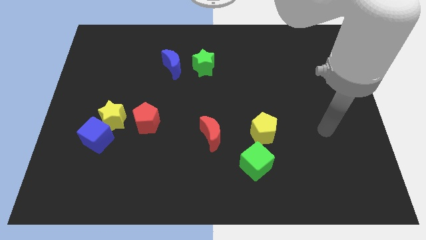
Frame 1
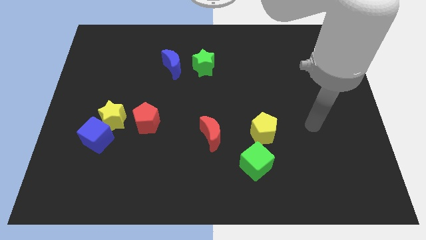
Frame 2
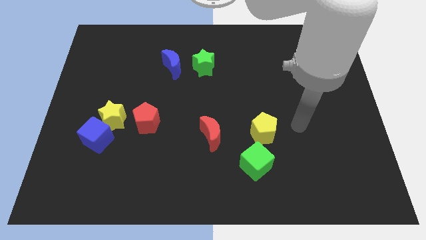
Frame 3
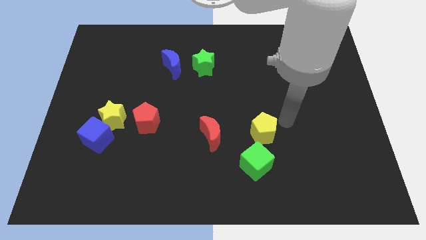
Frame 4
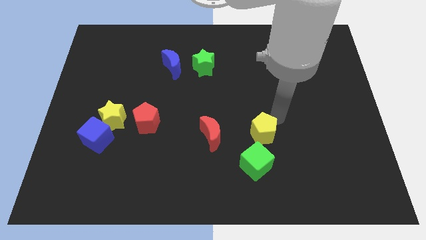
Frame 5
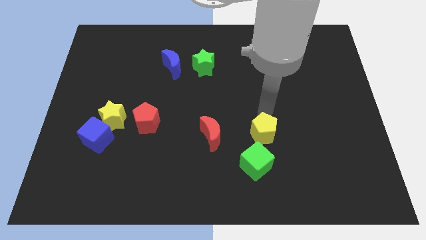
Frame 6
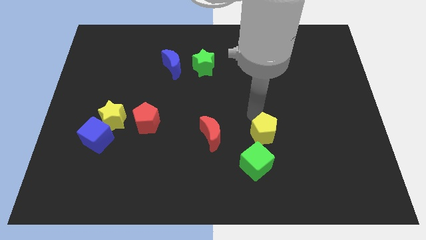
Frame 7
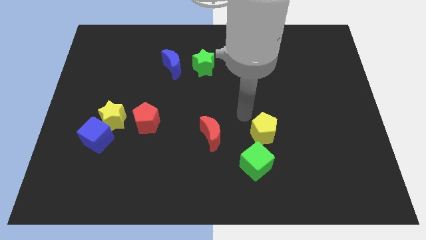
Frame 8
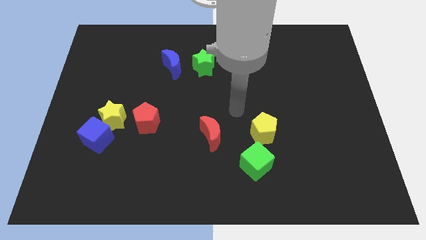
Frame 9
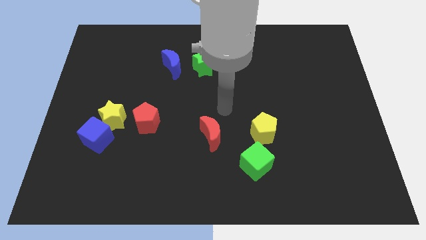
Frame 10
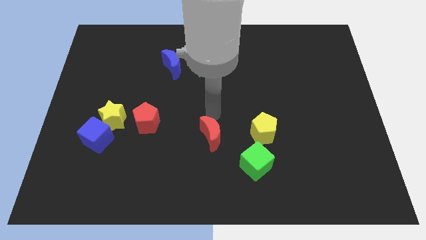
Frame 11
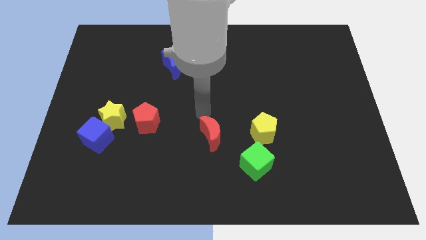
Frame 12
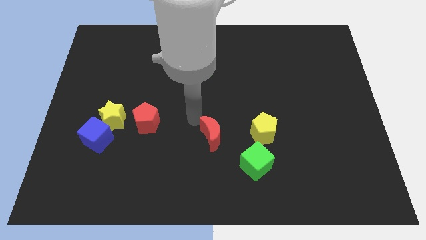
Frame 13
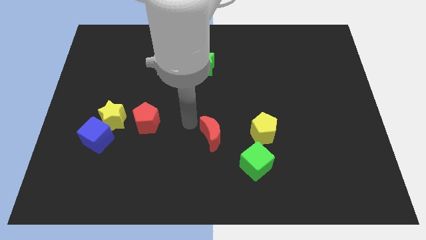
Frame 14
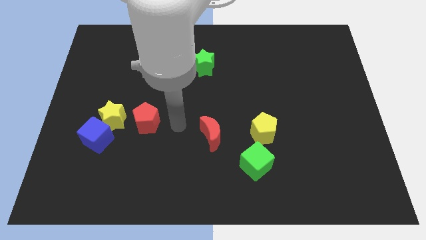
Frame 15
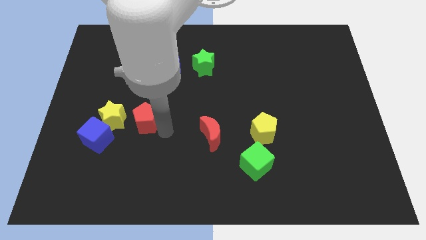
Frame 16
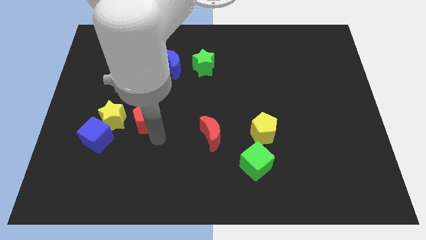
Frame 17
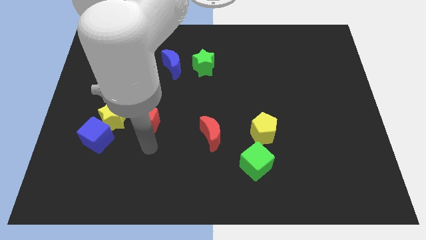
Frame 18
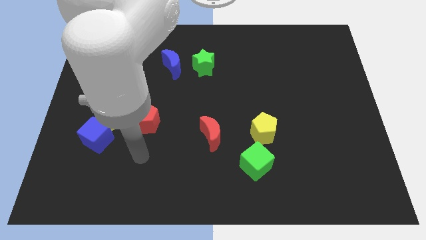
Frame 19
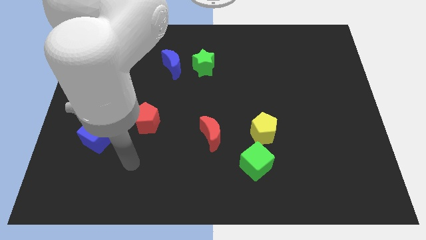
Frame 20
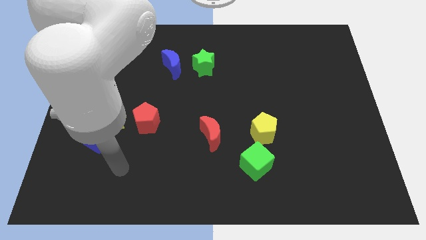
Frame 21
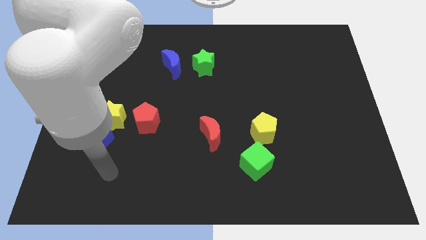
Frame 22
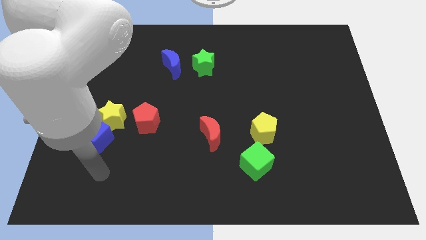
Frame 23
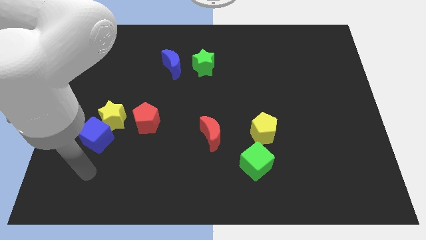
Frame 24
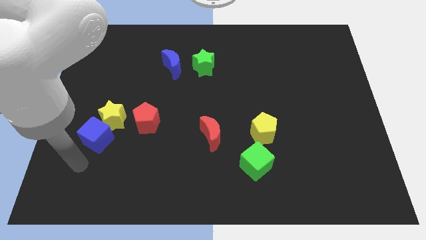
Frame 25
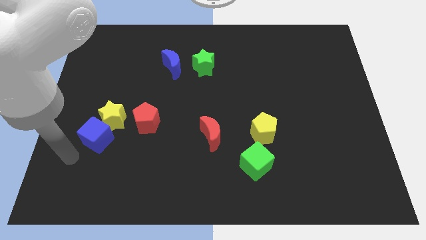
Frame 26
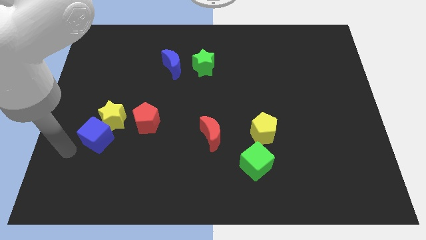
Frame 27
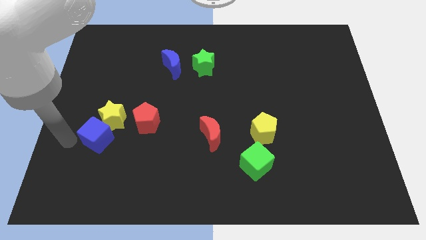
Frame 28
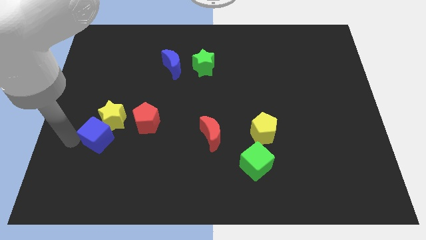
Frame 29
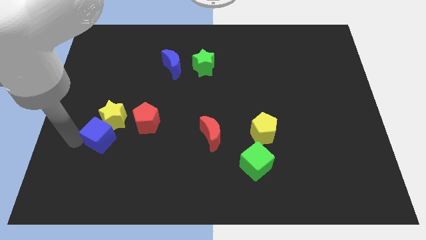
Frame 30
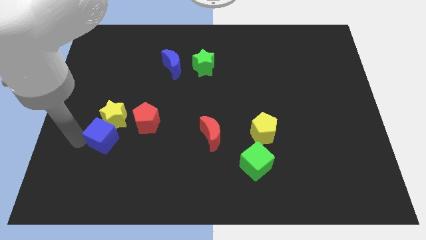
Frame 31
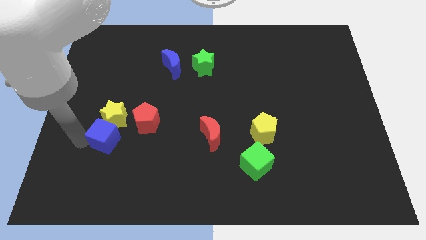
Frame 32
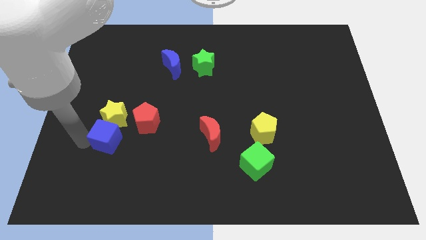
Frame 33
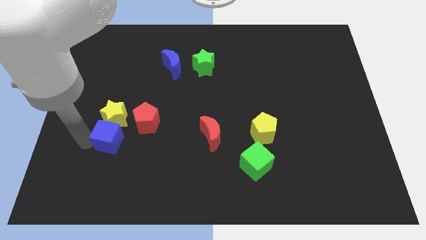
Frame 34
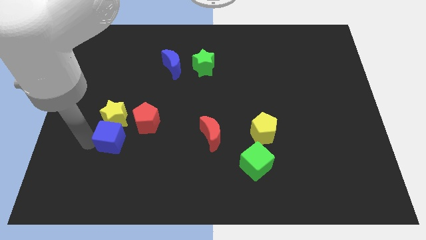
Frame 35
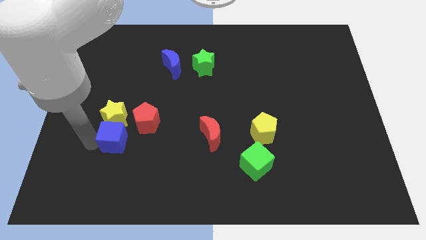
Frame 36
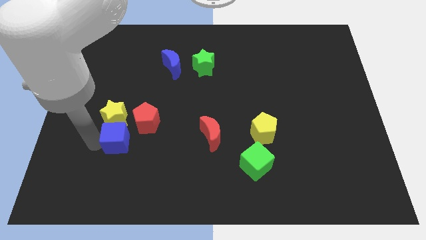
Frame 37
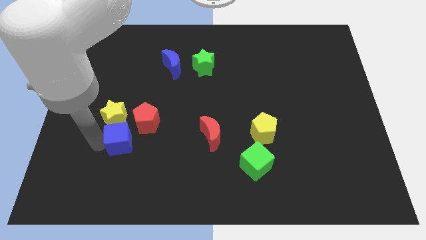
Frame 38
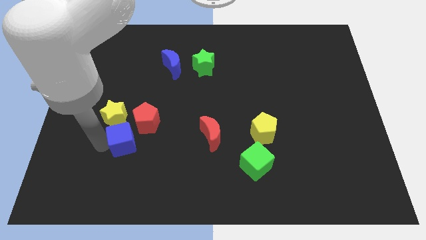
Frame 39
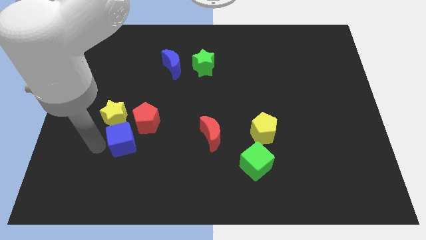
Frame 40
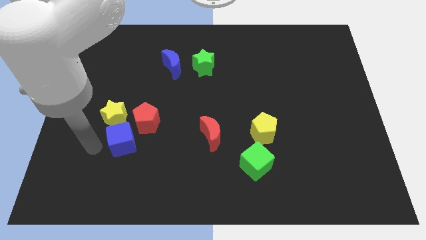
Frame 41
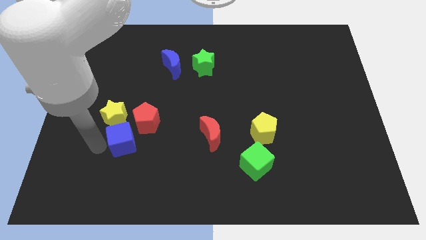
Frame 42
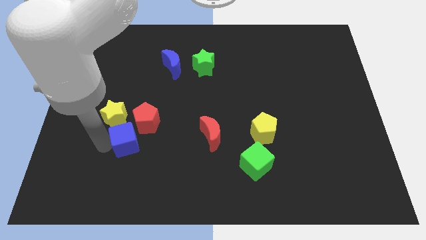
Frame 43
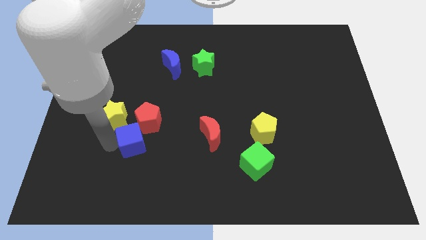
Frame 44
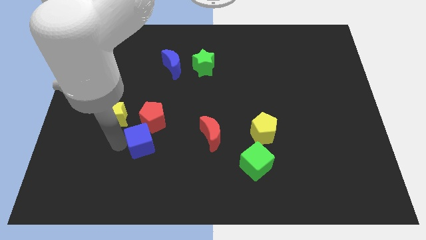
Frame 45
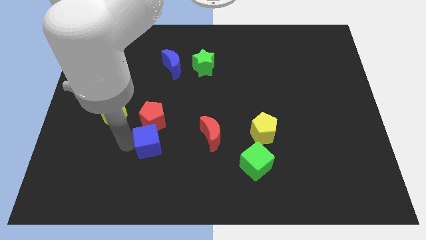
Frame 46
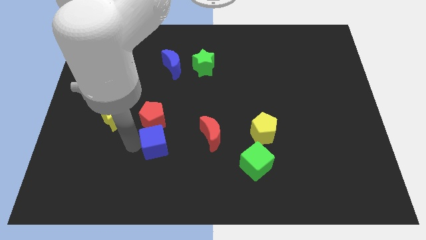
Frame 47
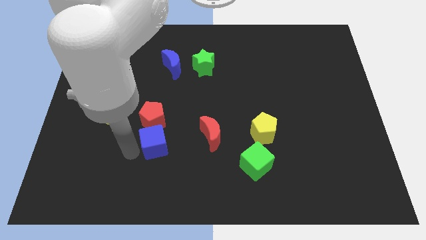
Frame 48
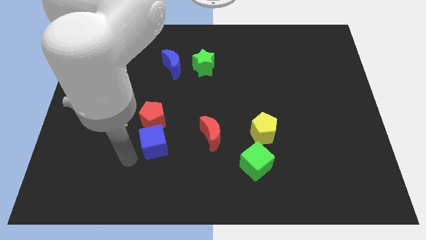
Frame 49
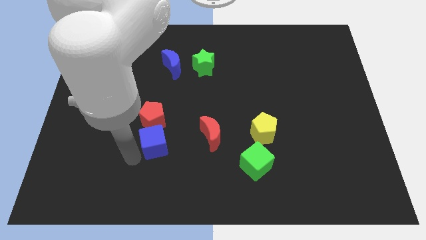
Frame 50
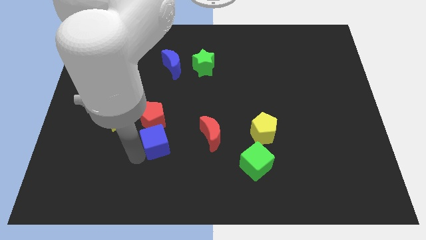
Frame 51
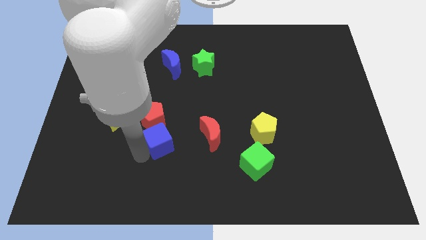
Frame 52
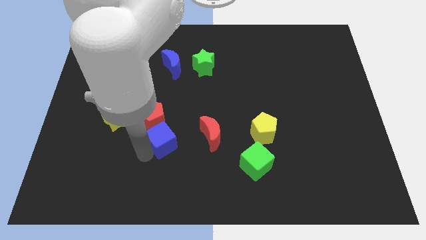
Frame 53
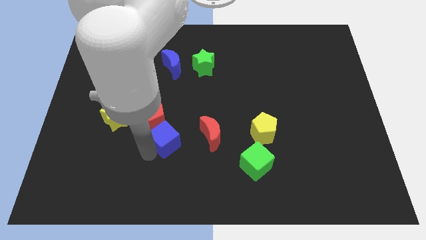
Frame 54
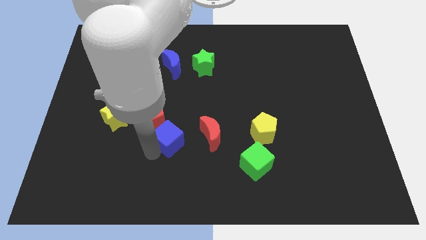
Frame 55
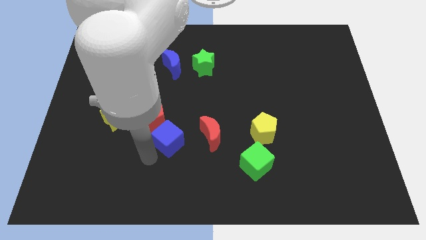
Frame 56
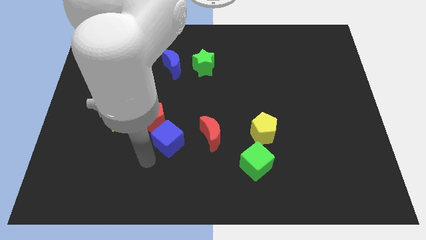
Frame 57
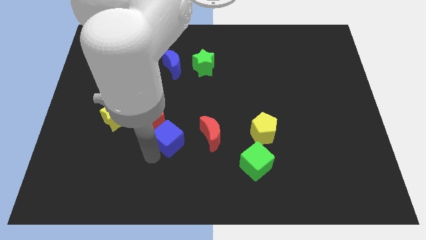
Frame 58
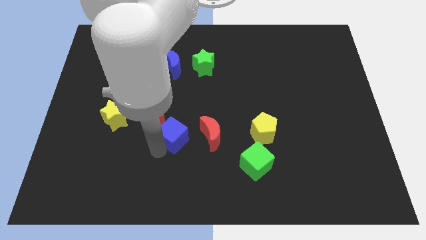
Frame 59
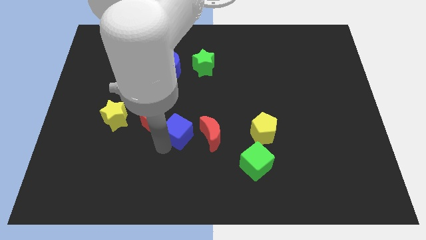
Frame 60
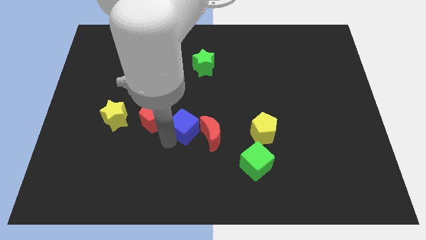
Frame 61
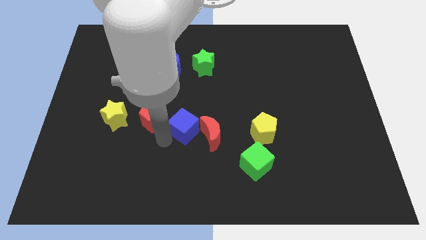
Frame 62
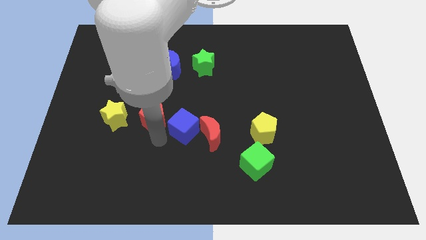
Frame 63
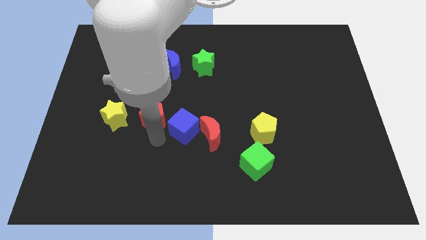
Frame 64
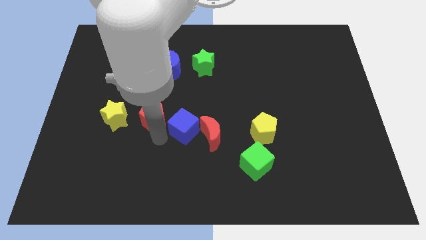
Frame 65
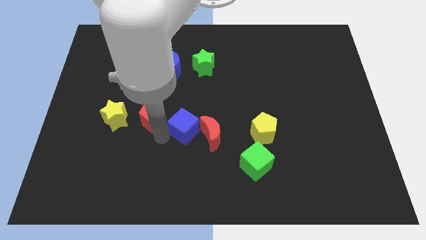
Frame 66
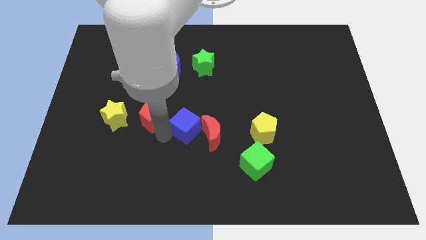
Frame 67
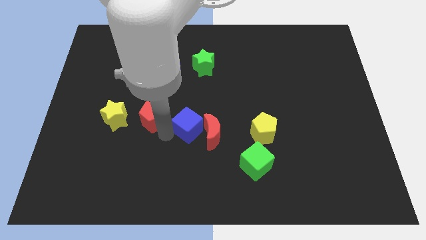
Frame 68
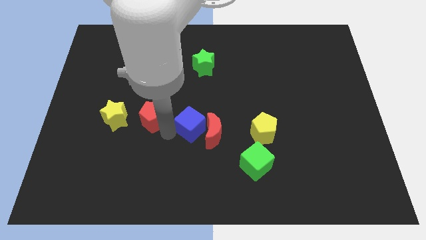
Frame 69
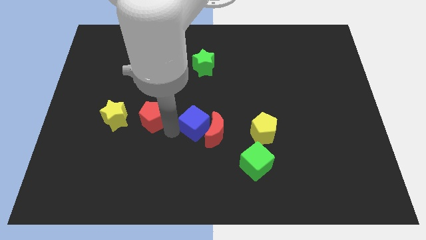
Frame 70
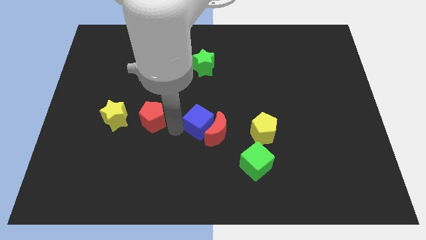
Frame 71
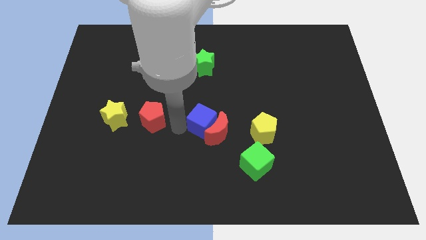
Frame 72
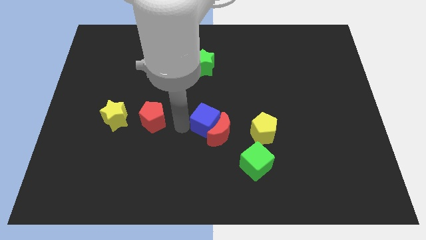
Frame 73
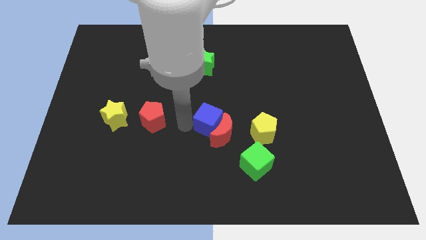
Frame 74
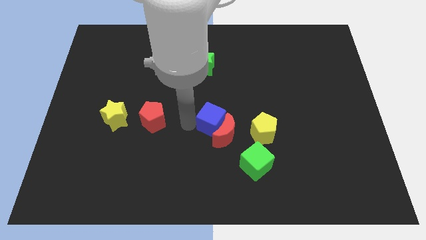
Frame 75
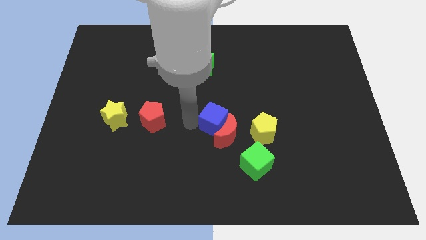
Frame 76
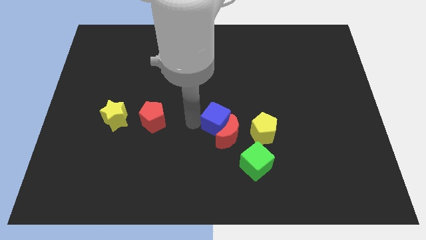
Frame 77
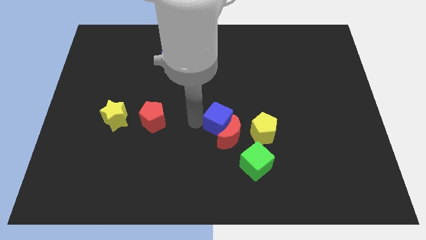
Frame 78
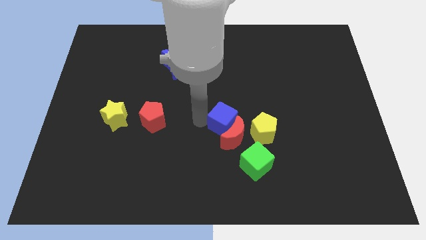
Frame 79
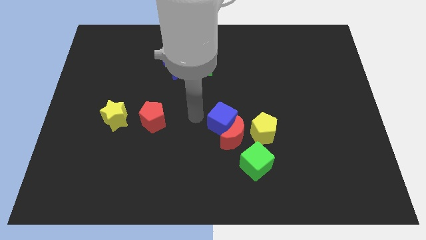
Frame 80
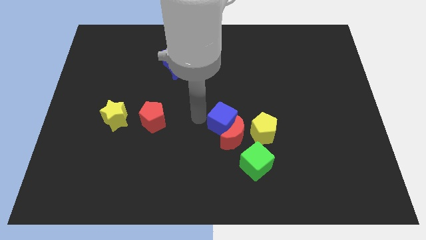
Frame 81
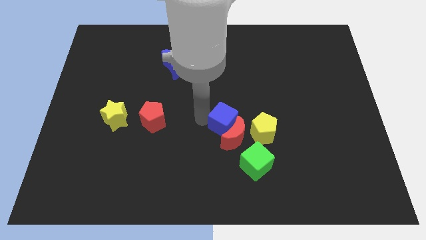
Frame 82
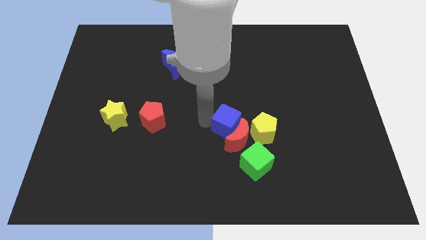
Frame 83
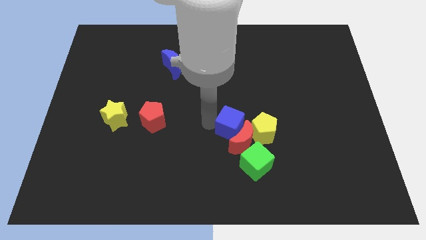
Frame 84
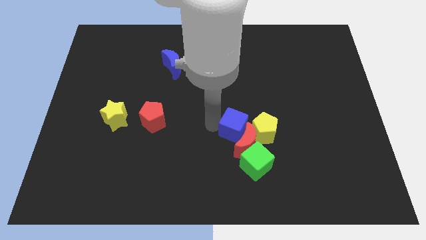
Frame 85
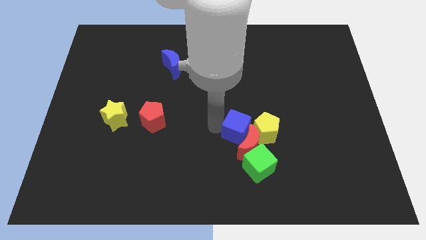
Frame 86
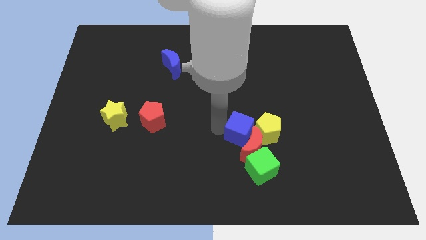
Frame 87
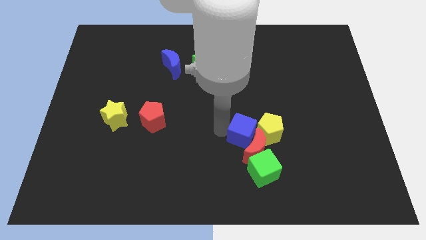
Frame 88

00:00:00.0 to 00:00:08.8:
slide the blue cube to the yellow pentagon
